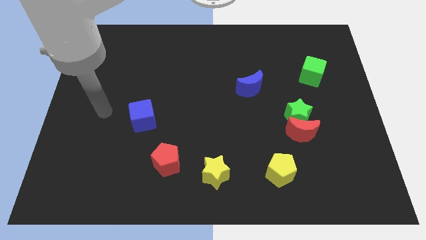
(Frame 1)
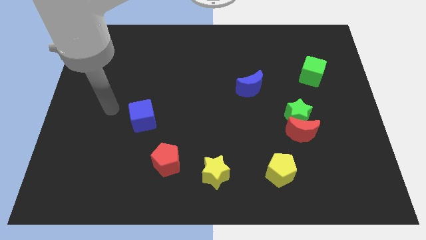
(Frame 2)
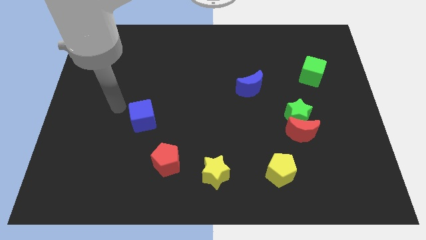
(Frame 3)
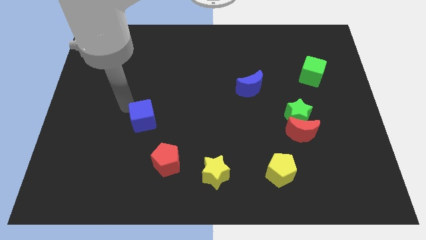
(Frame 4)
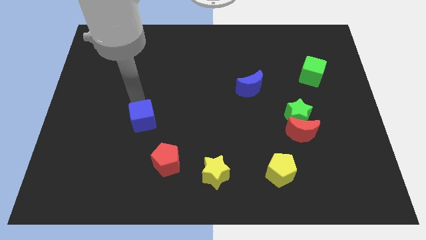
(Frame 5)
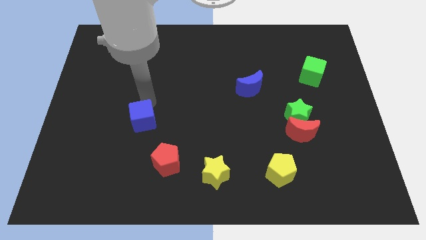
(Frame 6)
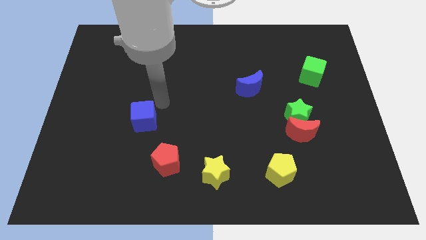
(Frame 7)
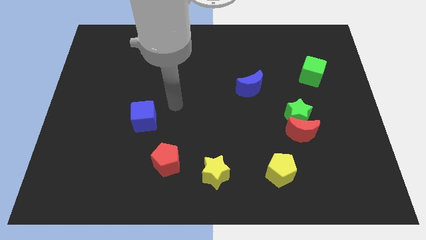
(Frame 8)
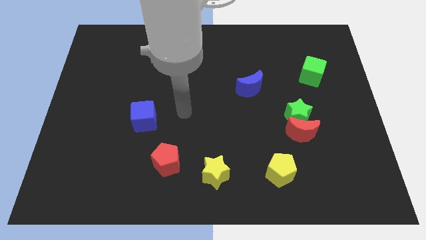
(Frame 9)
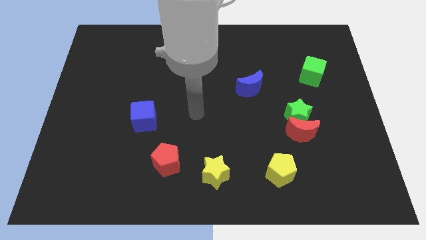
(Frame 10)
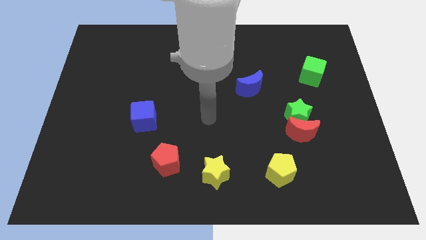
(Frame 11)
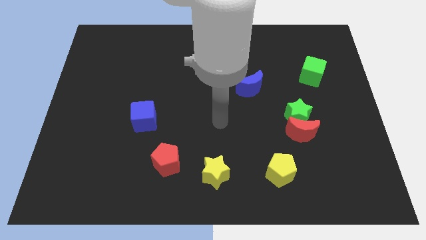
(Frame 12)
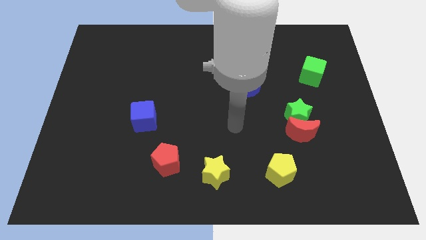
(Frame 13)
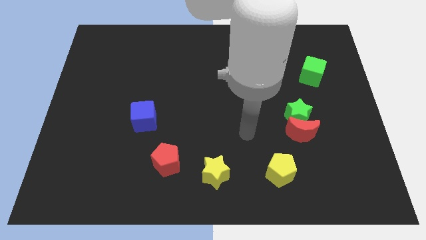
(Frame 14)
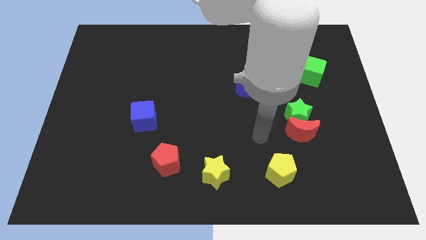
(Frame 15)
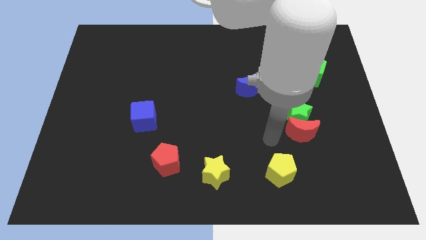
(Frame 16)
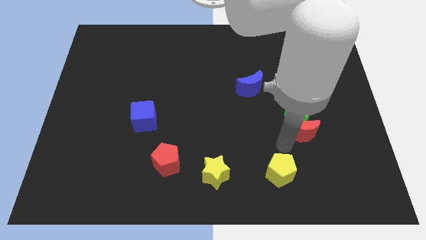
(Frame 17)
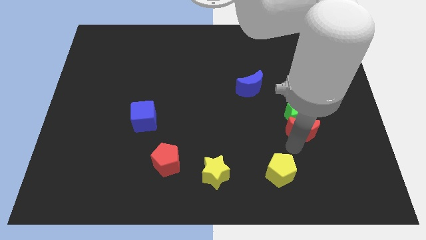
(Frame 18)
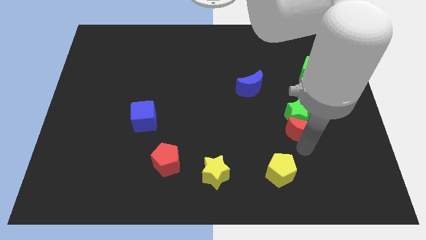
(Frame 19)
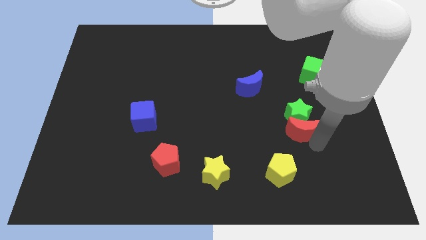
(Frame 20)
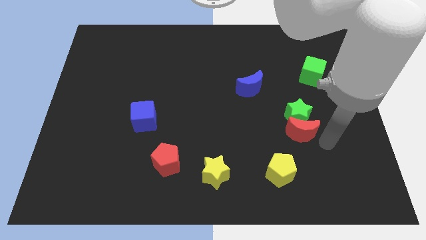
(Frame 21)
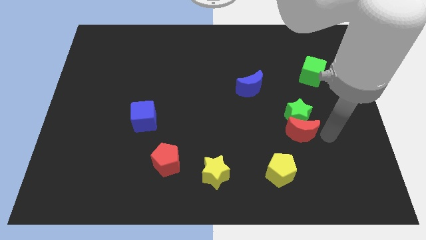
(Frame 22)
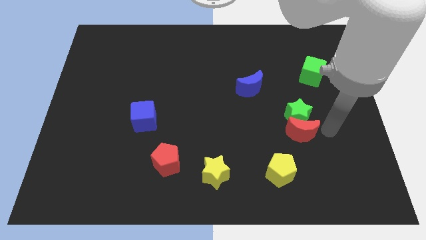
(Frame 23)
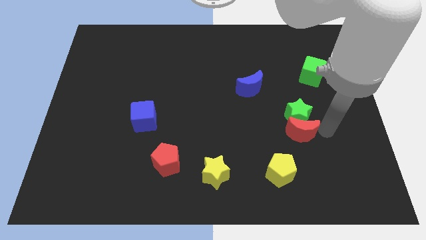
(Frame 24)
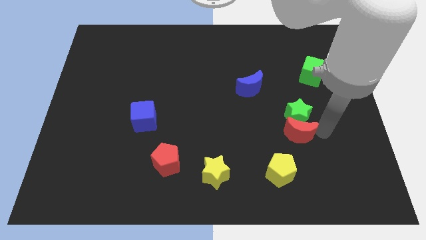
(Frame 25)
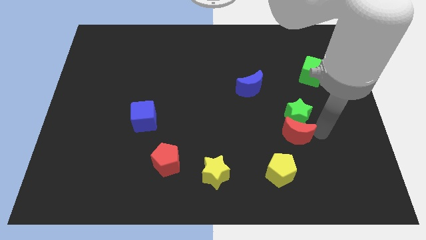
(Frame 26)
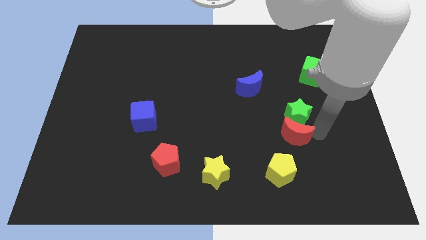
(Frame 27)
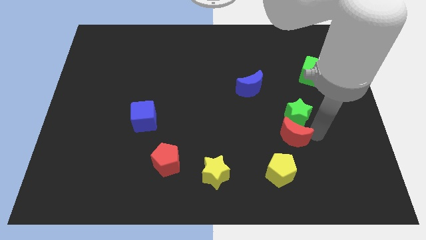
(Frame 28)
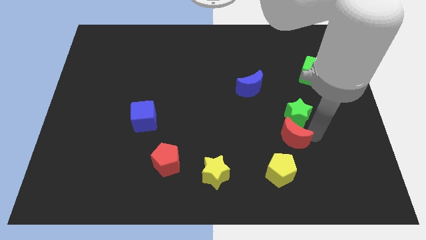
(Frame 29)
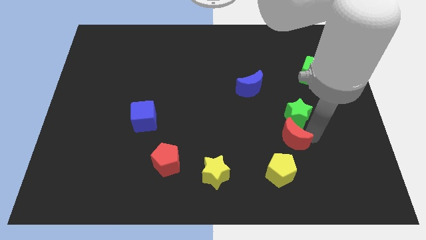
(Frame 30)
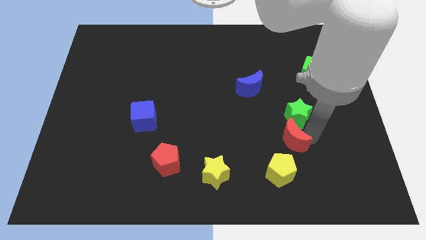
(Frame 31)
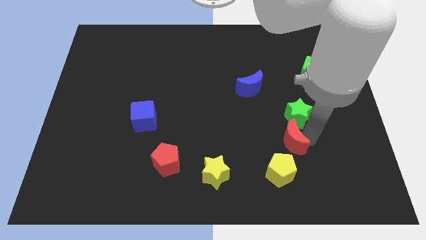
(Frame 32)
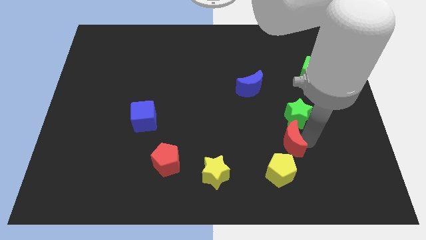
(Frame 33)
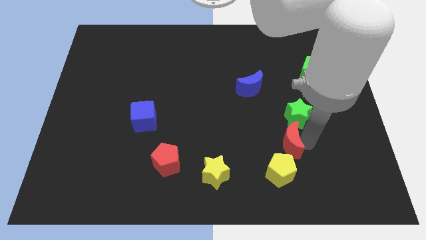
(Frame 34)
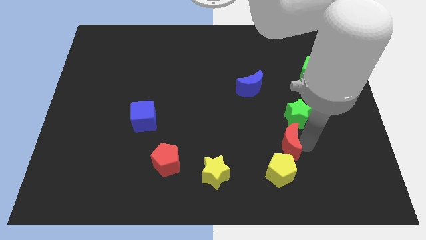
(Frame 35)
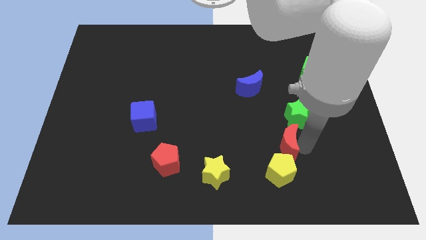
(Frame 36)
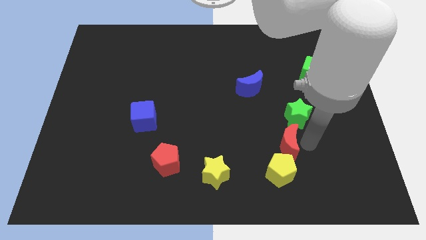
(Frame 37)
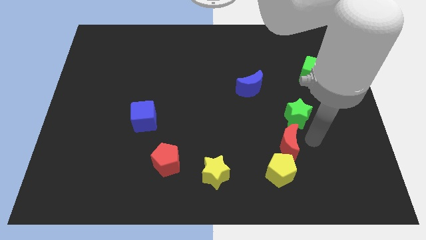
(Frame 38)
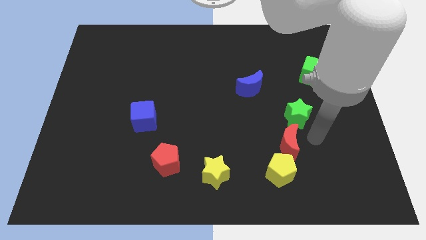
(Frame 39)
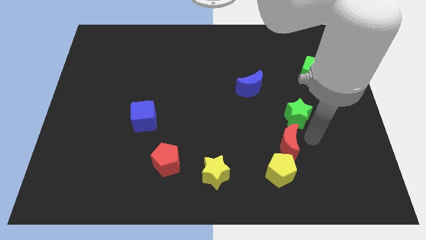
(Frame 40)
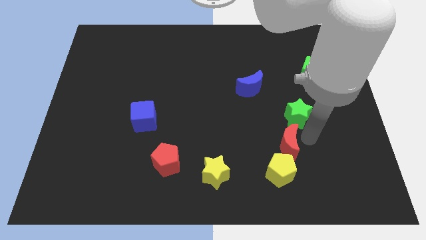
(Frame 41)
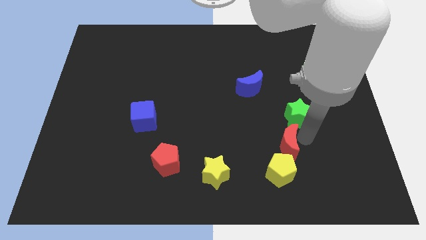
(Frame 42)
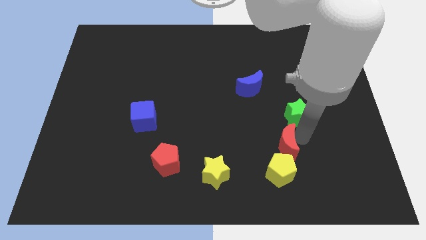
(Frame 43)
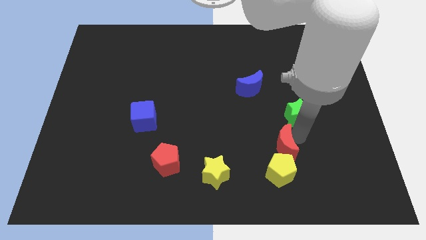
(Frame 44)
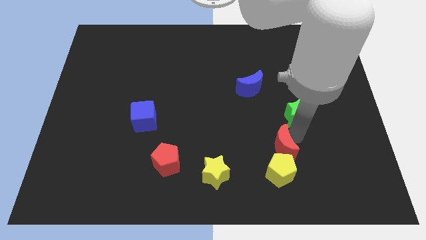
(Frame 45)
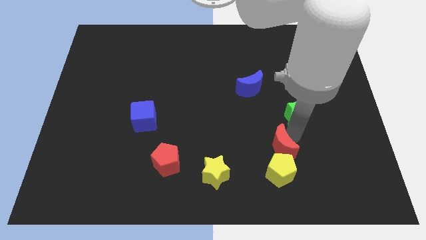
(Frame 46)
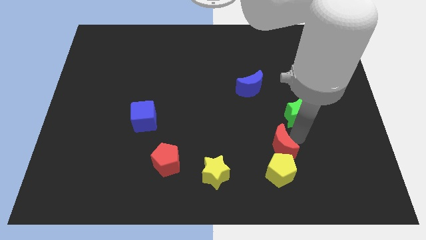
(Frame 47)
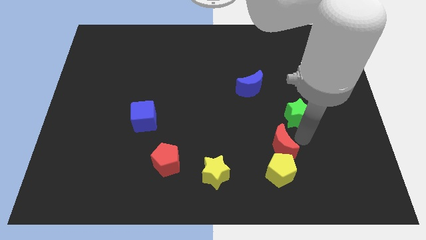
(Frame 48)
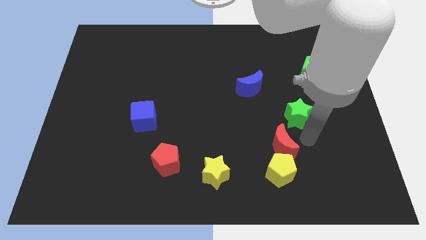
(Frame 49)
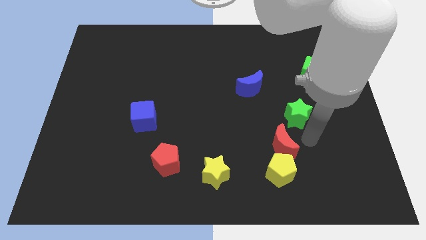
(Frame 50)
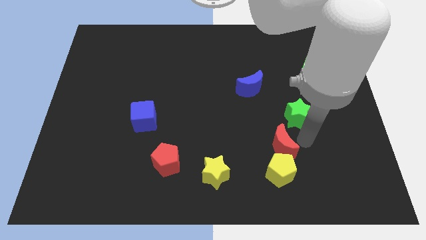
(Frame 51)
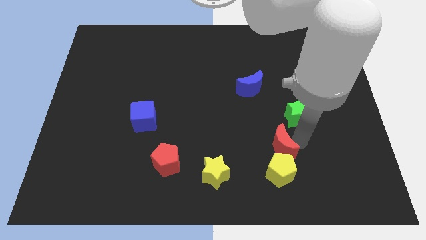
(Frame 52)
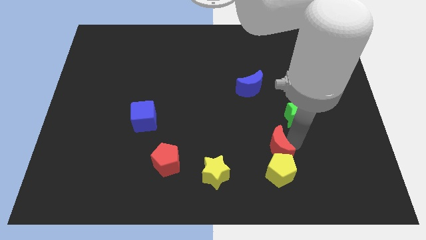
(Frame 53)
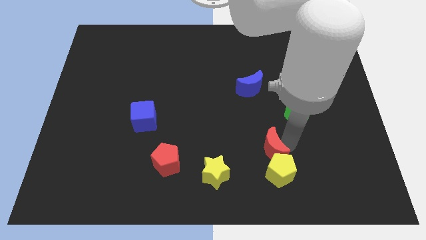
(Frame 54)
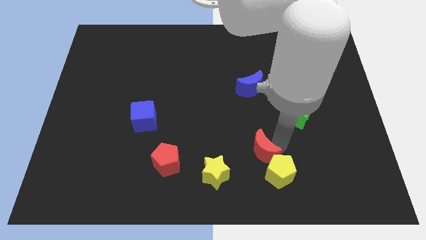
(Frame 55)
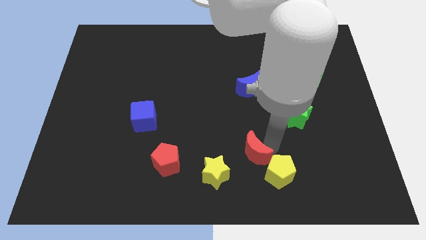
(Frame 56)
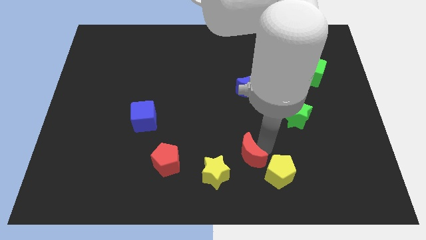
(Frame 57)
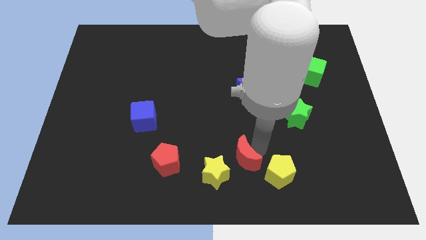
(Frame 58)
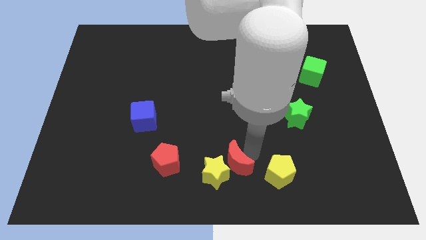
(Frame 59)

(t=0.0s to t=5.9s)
push the red moon next to the yellow star
